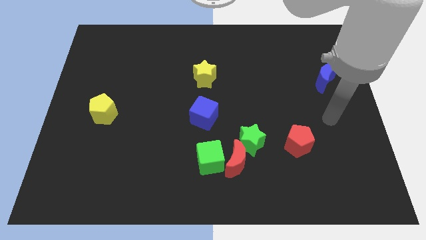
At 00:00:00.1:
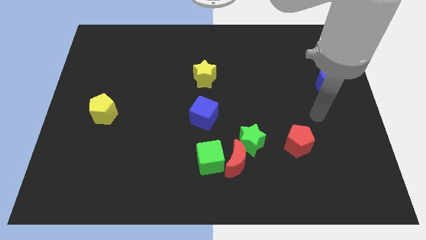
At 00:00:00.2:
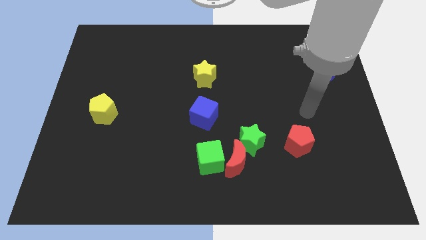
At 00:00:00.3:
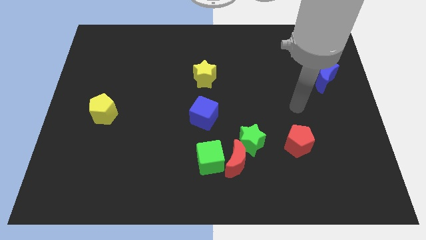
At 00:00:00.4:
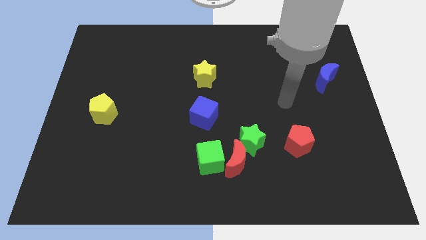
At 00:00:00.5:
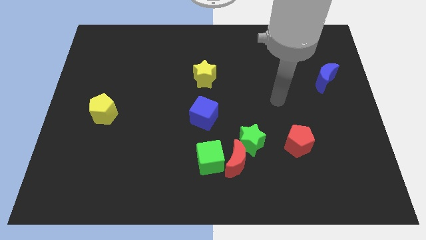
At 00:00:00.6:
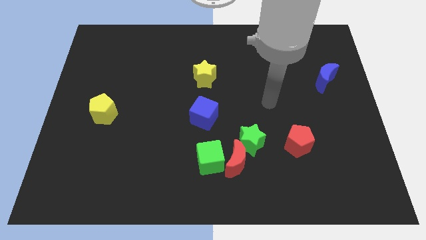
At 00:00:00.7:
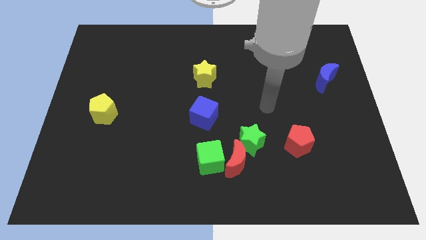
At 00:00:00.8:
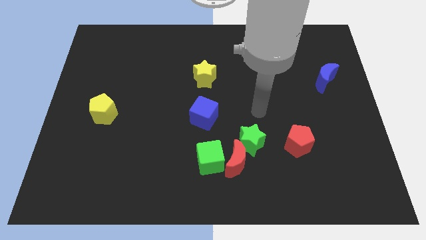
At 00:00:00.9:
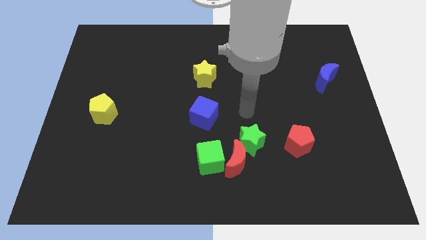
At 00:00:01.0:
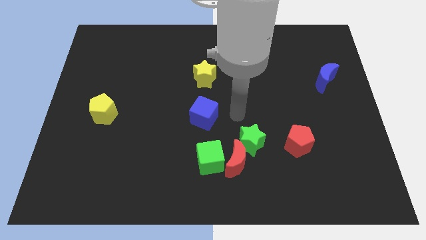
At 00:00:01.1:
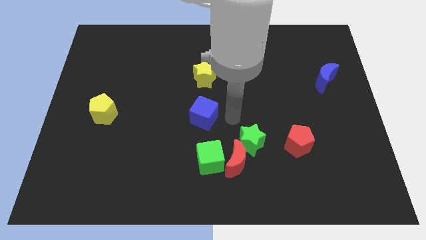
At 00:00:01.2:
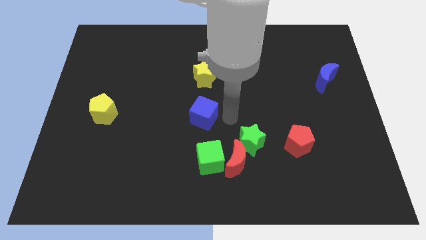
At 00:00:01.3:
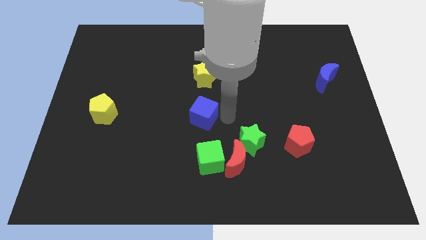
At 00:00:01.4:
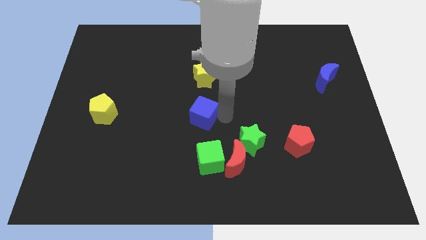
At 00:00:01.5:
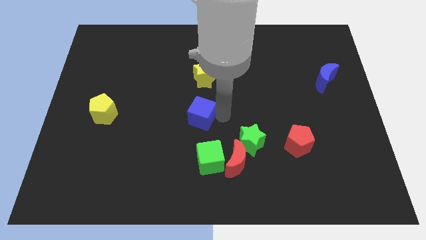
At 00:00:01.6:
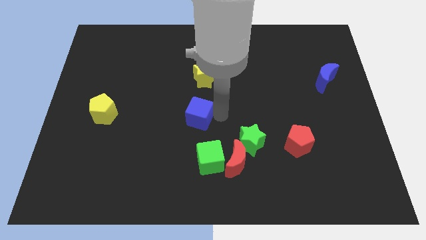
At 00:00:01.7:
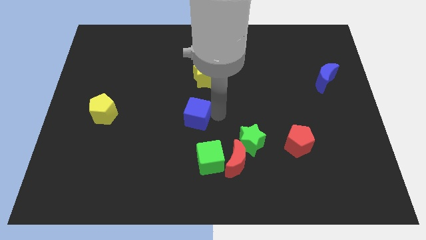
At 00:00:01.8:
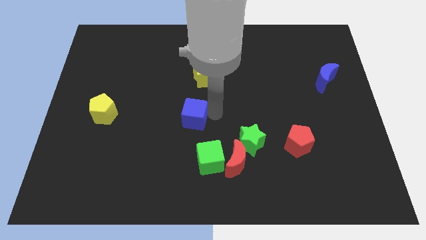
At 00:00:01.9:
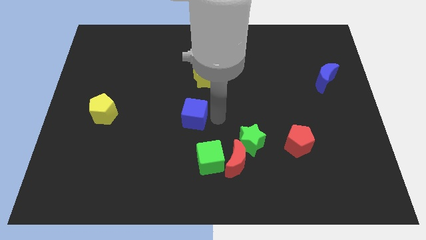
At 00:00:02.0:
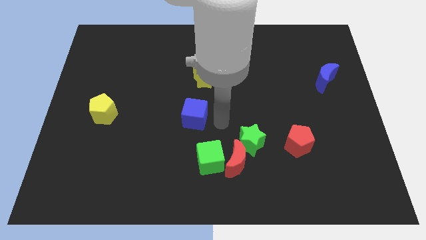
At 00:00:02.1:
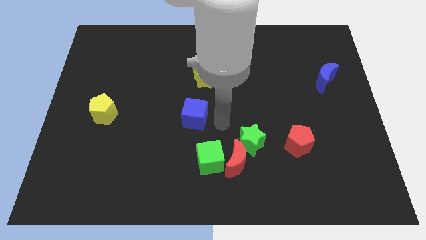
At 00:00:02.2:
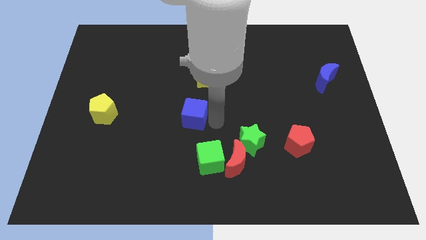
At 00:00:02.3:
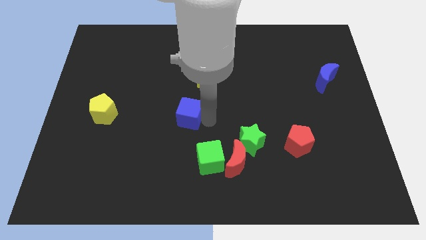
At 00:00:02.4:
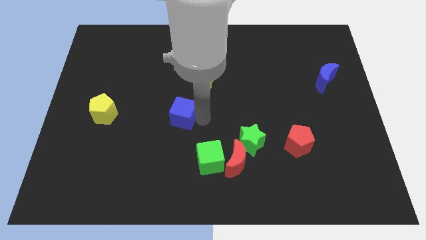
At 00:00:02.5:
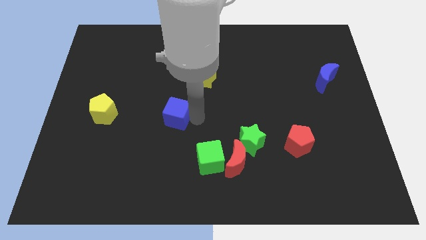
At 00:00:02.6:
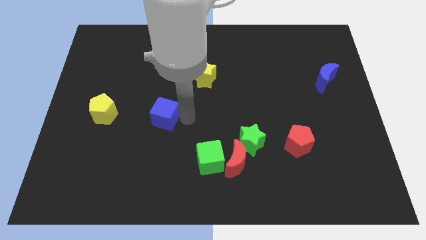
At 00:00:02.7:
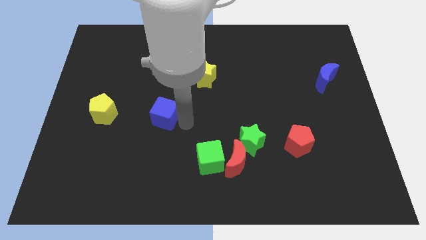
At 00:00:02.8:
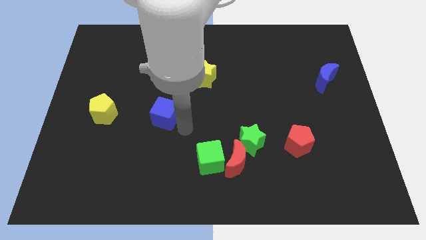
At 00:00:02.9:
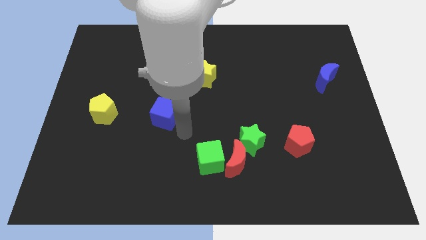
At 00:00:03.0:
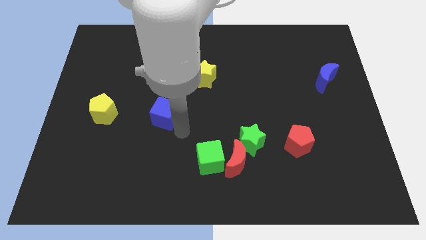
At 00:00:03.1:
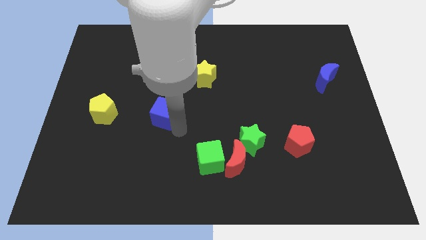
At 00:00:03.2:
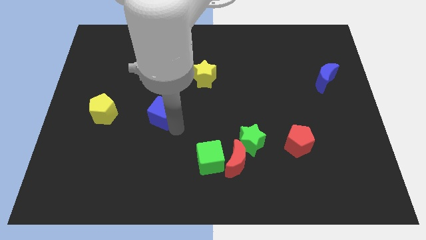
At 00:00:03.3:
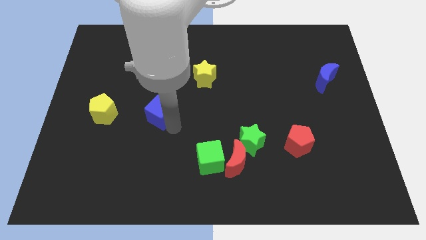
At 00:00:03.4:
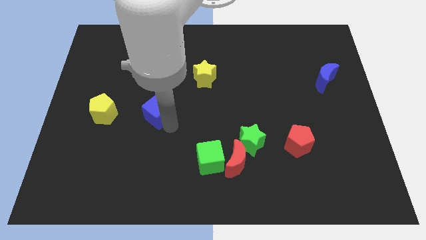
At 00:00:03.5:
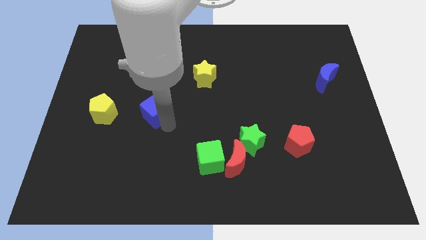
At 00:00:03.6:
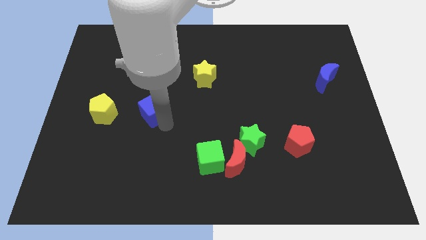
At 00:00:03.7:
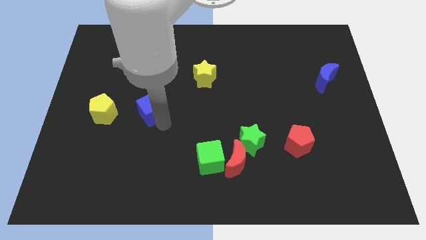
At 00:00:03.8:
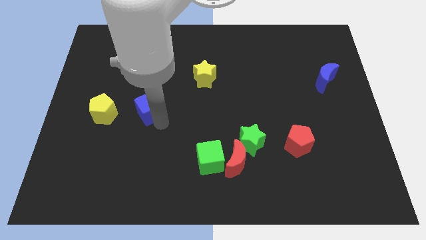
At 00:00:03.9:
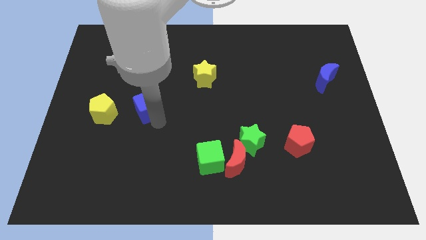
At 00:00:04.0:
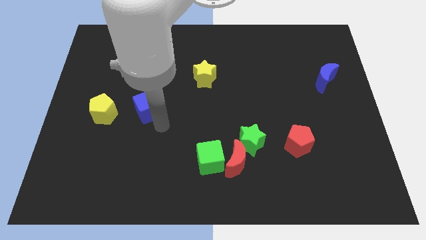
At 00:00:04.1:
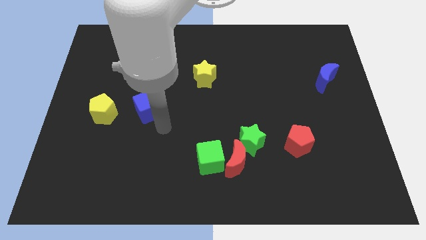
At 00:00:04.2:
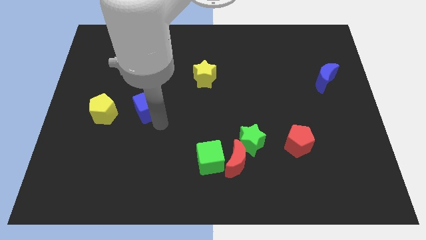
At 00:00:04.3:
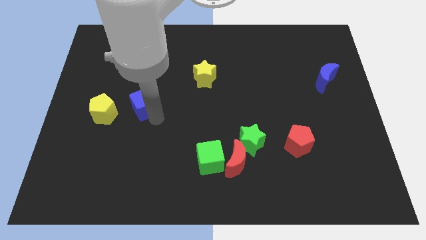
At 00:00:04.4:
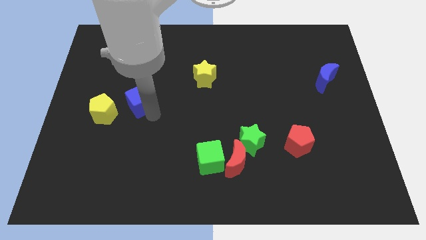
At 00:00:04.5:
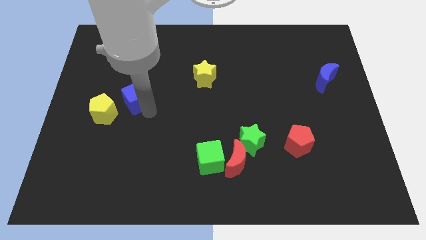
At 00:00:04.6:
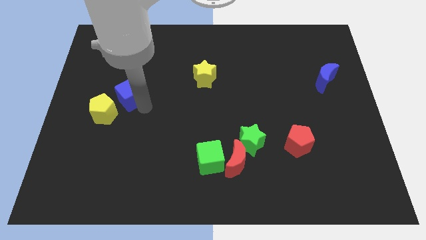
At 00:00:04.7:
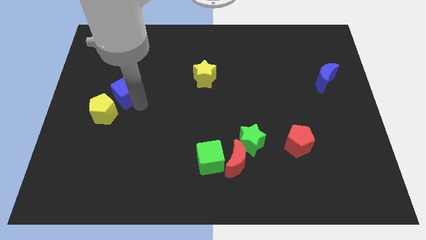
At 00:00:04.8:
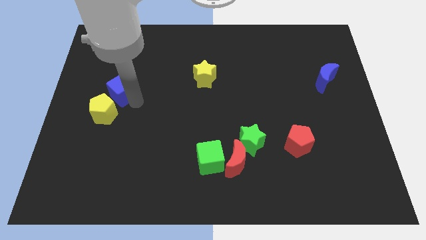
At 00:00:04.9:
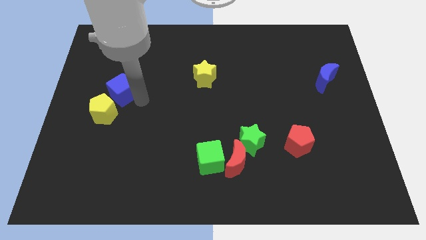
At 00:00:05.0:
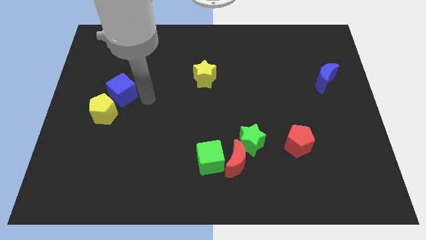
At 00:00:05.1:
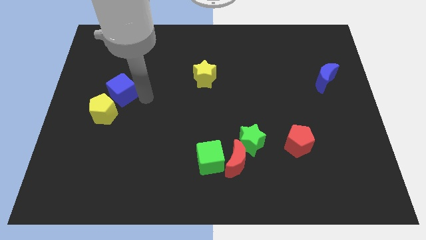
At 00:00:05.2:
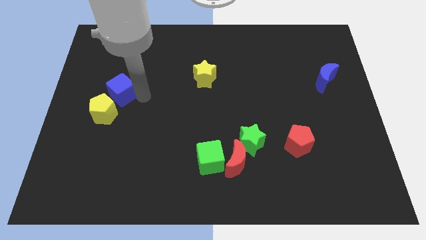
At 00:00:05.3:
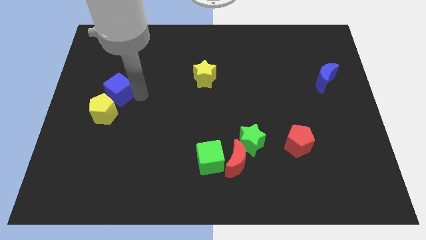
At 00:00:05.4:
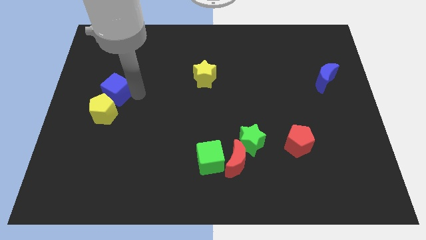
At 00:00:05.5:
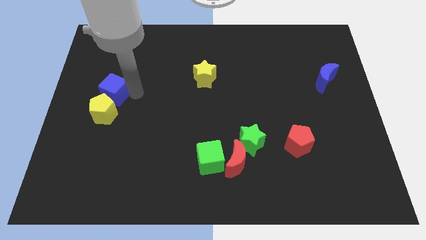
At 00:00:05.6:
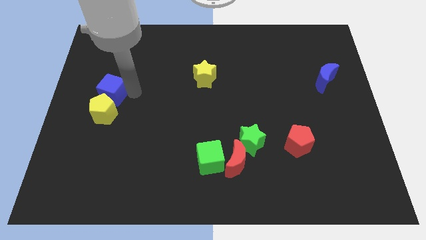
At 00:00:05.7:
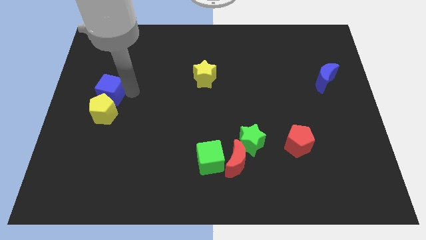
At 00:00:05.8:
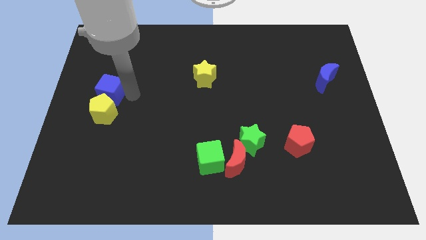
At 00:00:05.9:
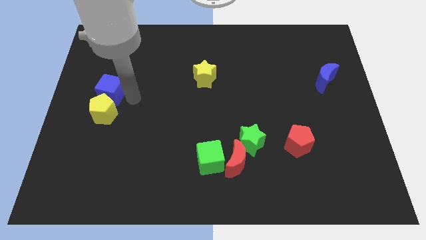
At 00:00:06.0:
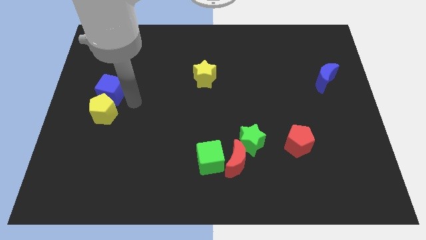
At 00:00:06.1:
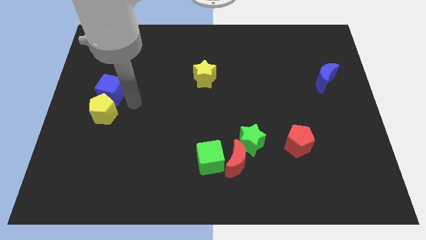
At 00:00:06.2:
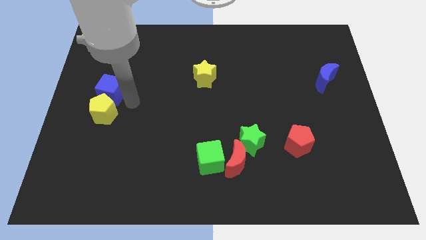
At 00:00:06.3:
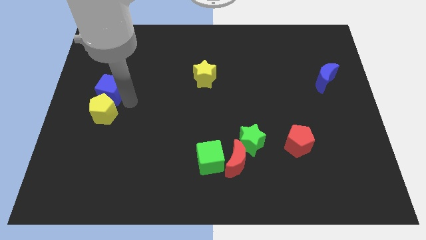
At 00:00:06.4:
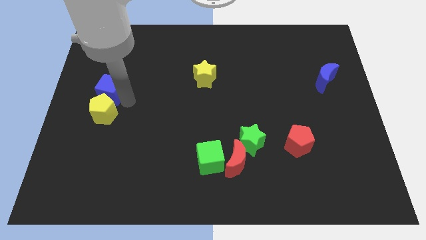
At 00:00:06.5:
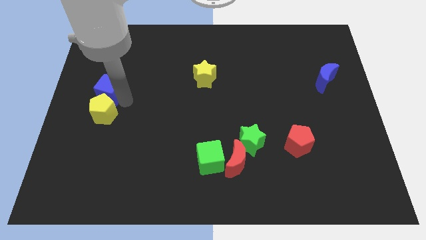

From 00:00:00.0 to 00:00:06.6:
push the blue cube to the center left
